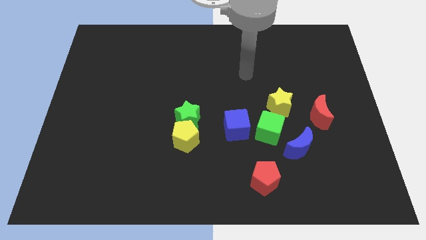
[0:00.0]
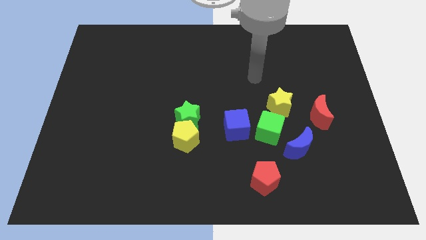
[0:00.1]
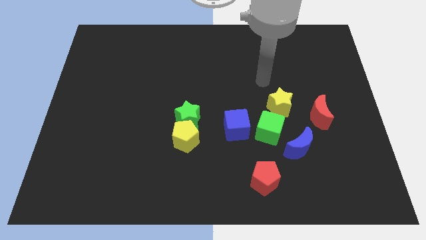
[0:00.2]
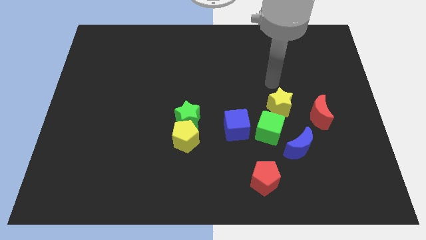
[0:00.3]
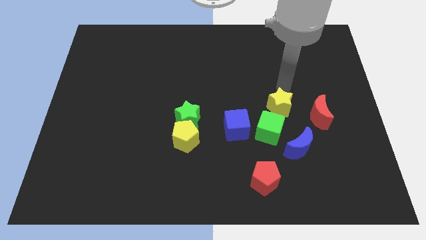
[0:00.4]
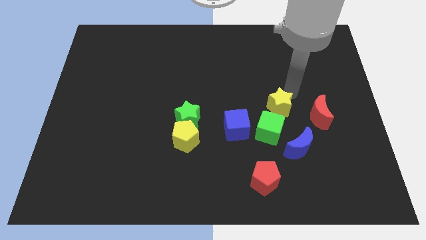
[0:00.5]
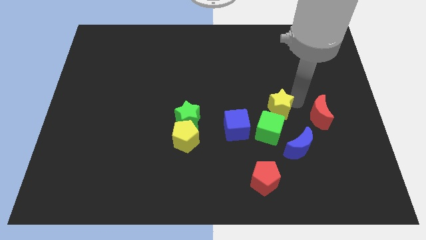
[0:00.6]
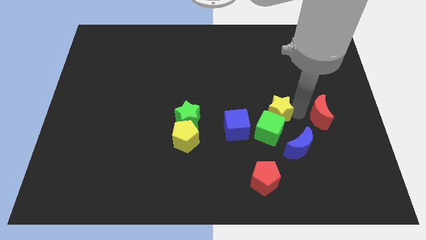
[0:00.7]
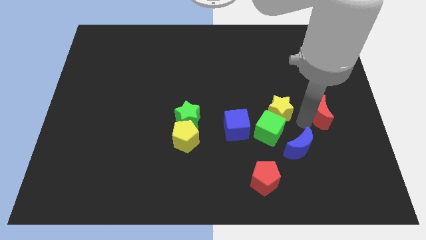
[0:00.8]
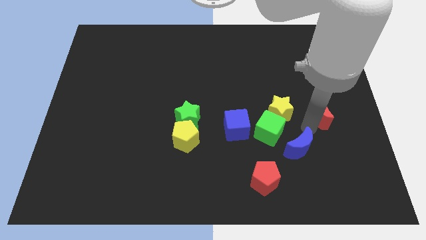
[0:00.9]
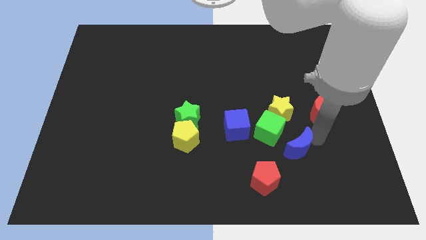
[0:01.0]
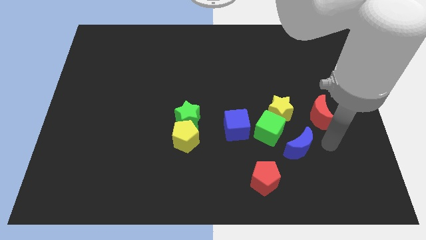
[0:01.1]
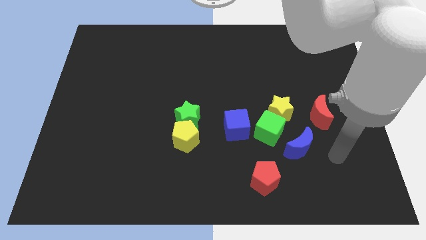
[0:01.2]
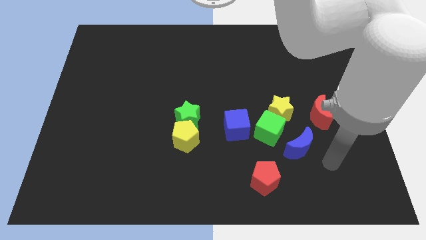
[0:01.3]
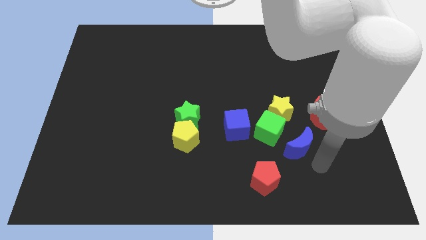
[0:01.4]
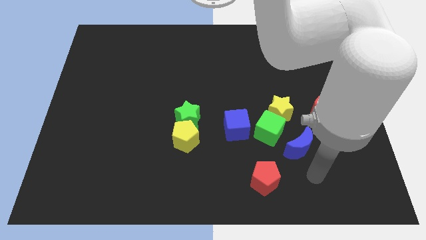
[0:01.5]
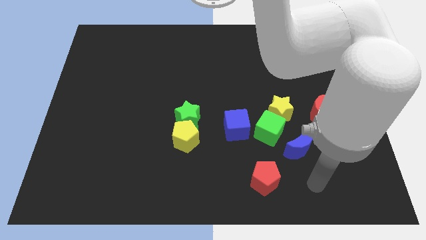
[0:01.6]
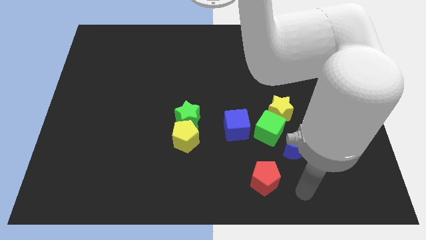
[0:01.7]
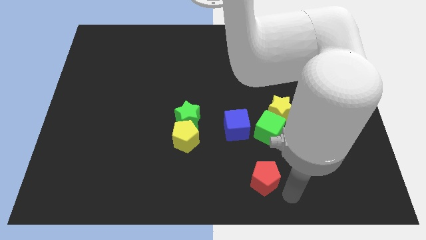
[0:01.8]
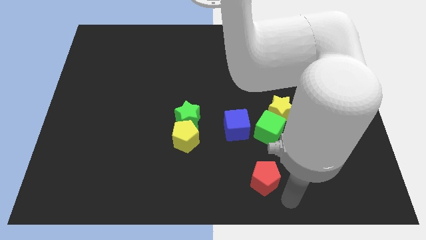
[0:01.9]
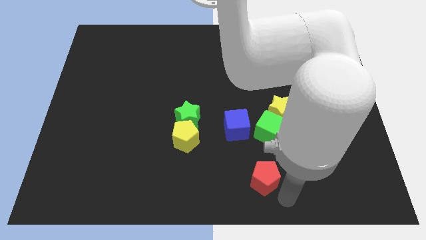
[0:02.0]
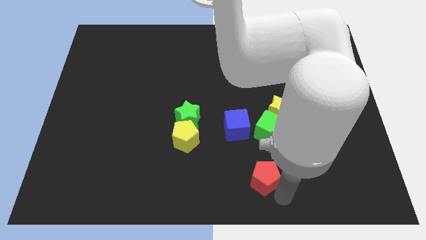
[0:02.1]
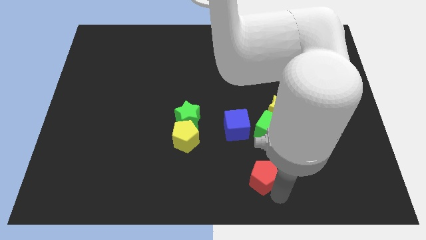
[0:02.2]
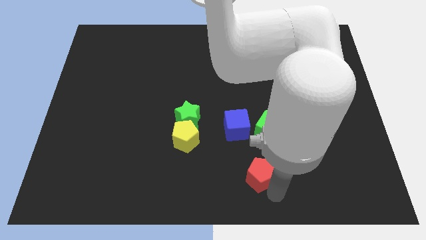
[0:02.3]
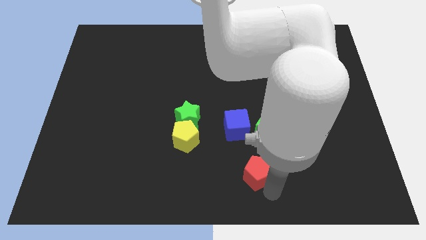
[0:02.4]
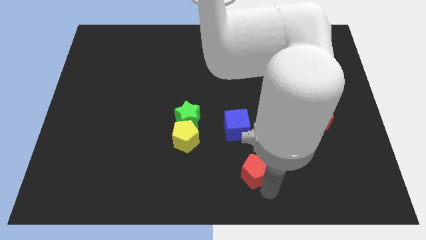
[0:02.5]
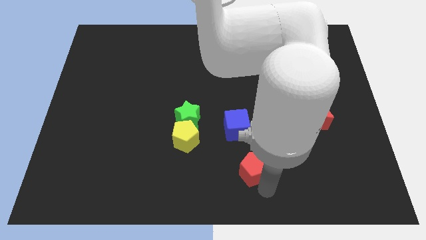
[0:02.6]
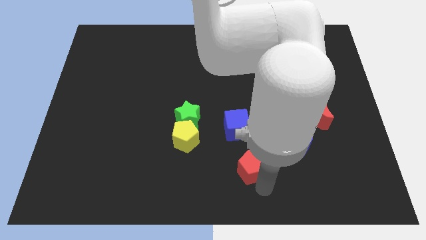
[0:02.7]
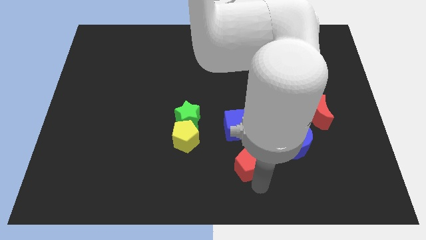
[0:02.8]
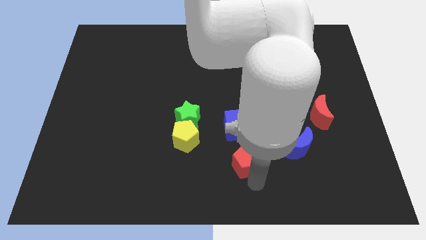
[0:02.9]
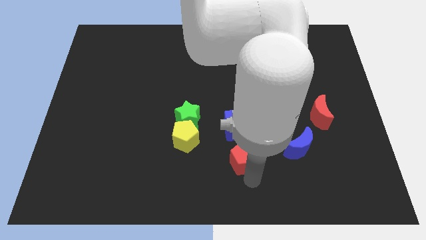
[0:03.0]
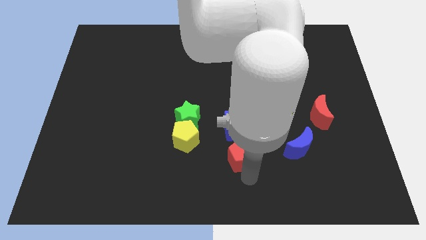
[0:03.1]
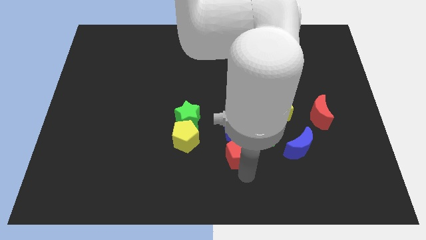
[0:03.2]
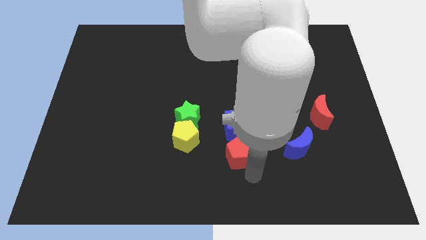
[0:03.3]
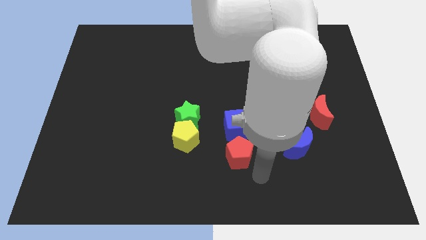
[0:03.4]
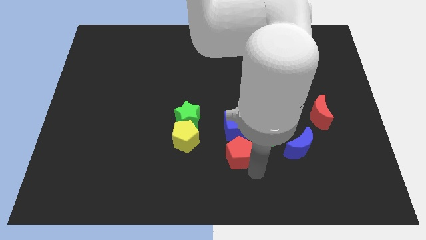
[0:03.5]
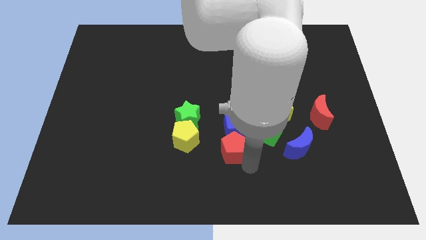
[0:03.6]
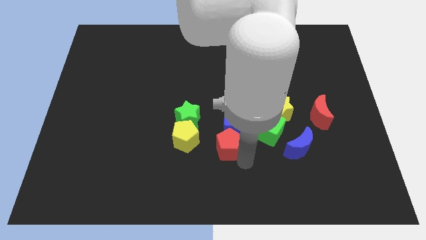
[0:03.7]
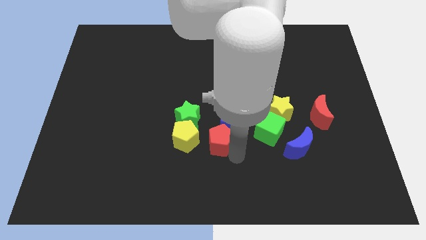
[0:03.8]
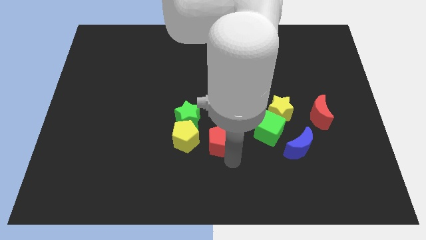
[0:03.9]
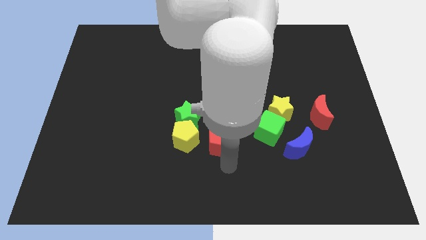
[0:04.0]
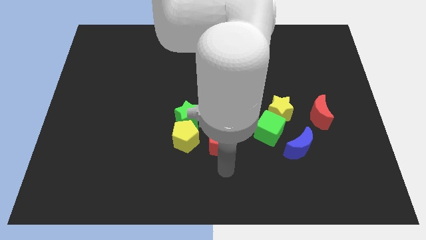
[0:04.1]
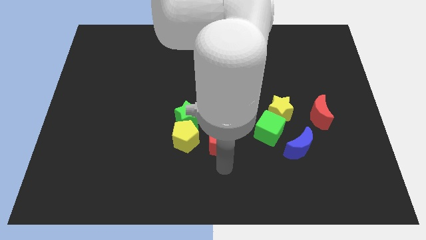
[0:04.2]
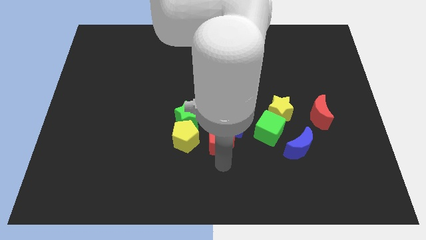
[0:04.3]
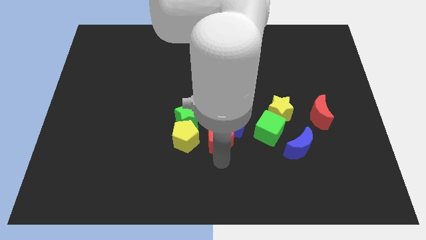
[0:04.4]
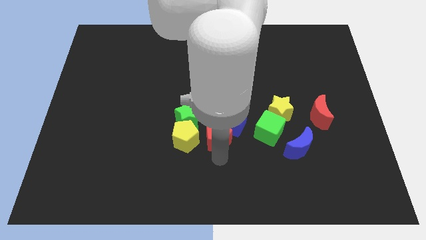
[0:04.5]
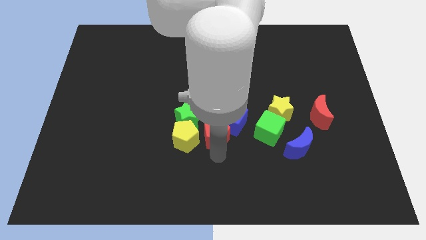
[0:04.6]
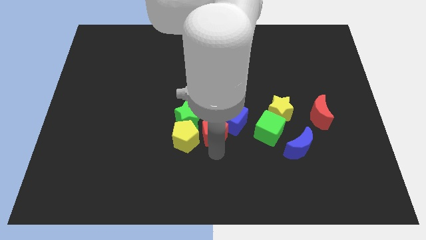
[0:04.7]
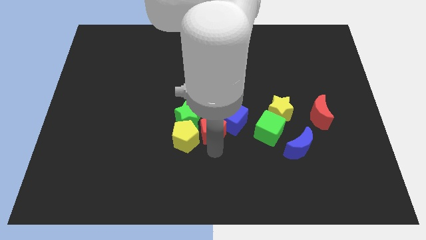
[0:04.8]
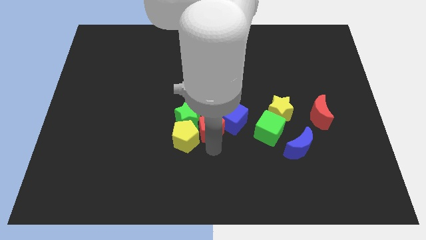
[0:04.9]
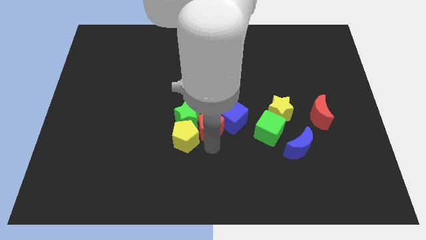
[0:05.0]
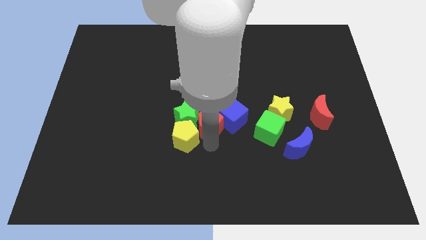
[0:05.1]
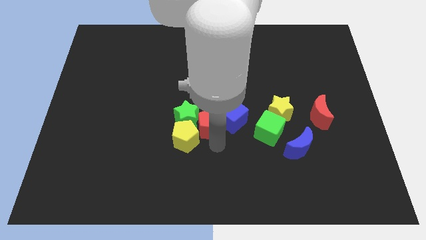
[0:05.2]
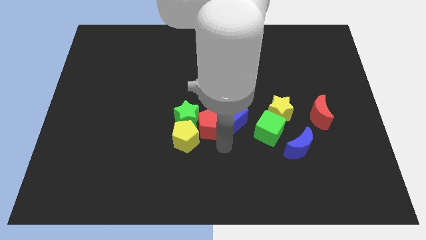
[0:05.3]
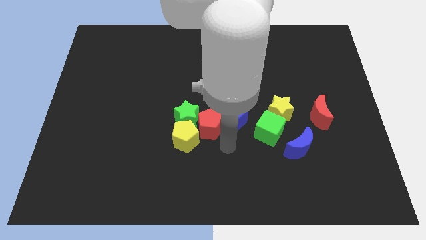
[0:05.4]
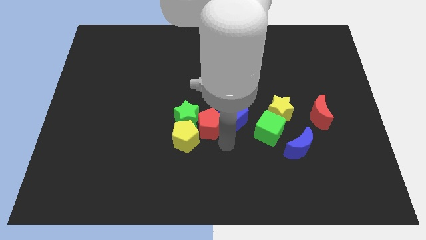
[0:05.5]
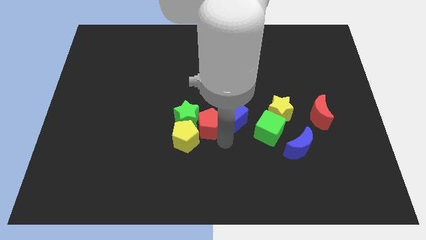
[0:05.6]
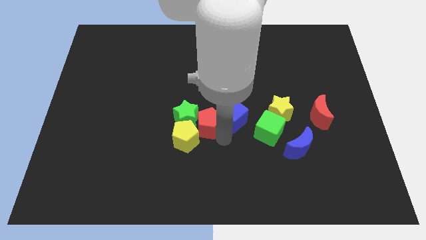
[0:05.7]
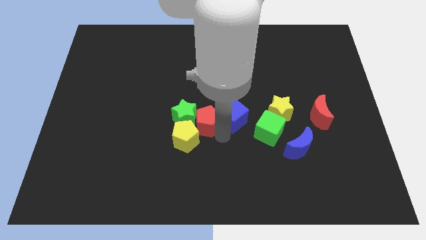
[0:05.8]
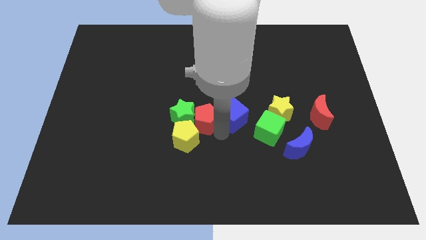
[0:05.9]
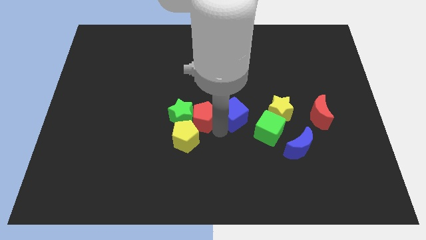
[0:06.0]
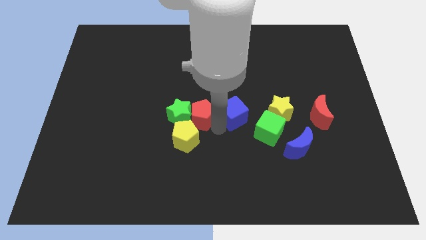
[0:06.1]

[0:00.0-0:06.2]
move the red pentagon up and left diagonally

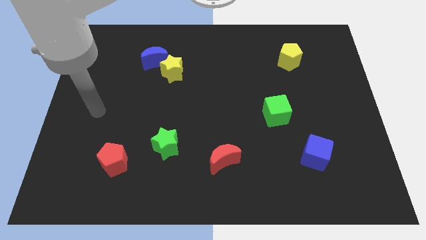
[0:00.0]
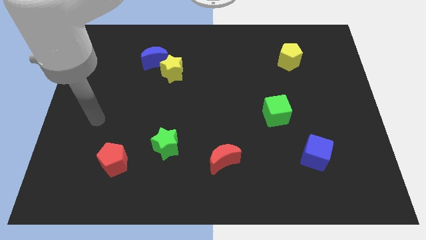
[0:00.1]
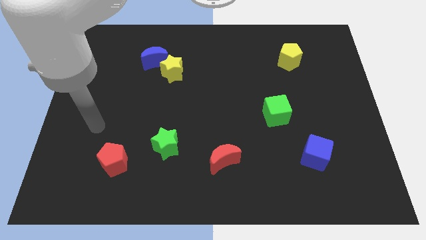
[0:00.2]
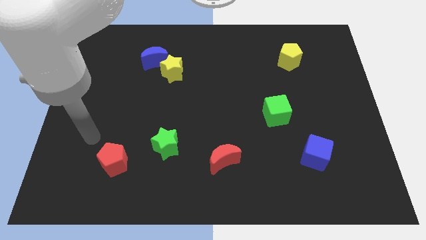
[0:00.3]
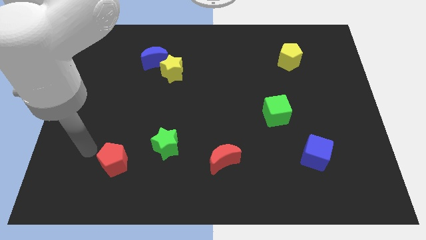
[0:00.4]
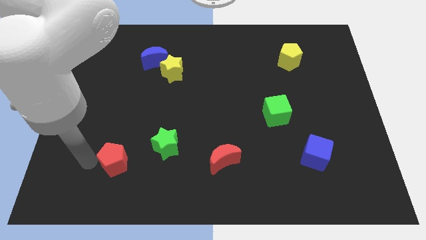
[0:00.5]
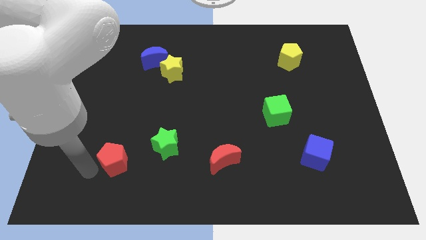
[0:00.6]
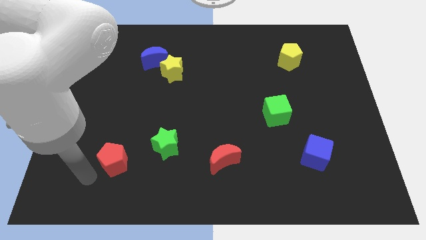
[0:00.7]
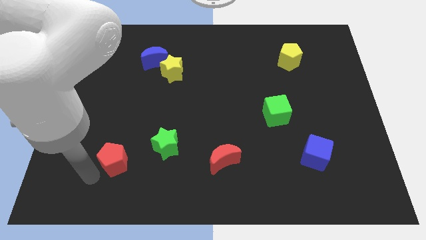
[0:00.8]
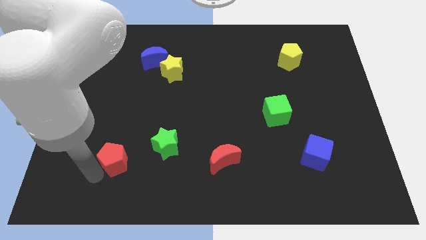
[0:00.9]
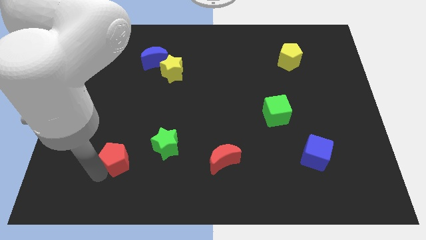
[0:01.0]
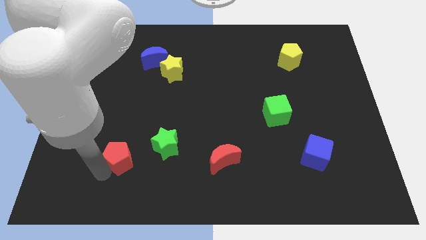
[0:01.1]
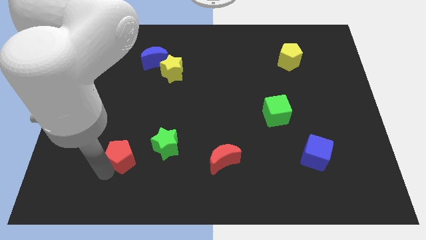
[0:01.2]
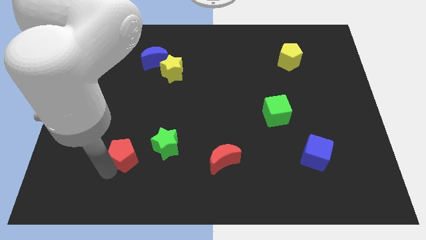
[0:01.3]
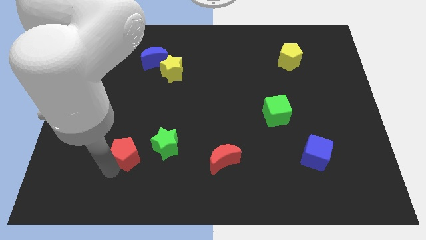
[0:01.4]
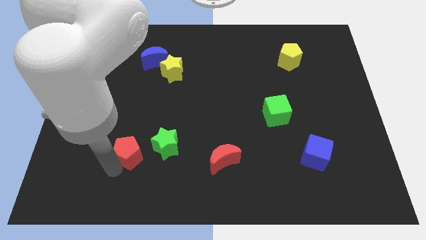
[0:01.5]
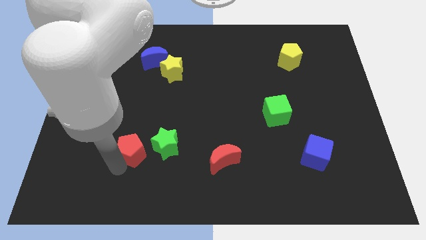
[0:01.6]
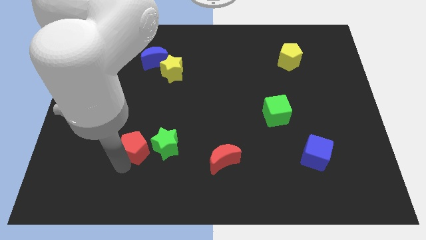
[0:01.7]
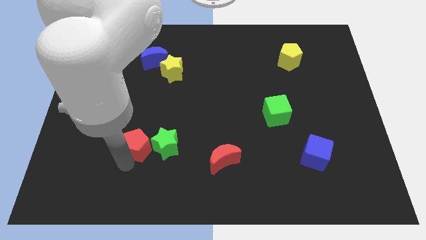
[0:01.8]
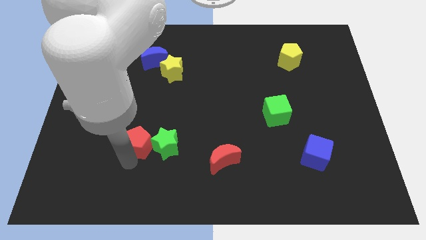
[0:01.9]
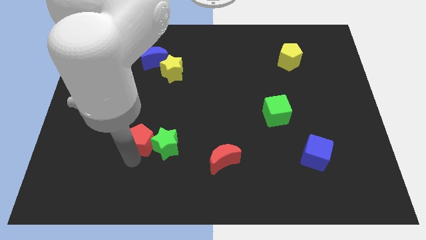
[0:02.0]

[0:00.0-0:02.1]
slightly push the red pentagon diagonally up and to the right

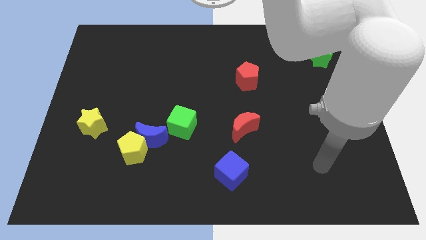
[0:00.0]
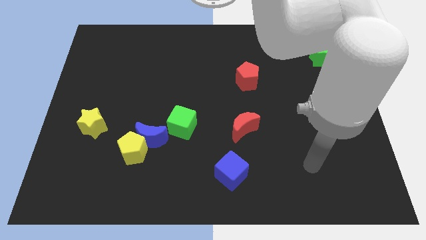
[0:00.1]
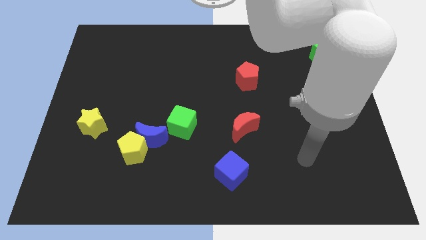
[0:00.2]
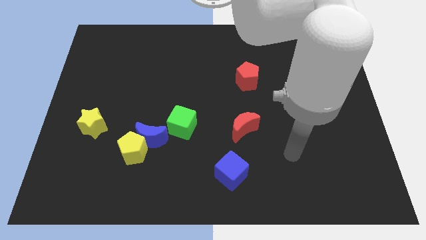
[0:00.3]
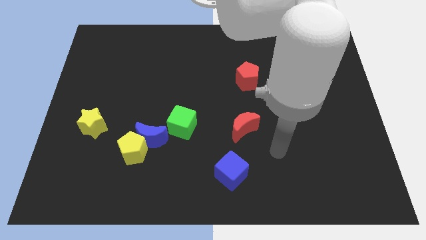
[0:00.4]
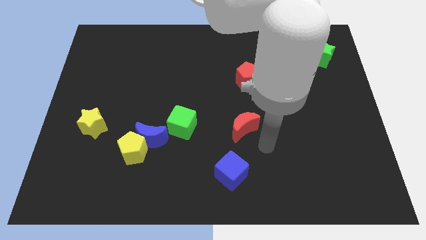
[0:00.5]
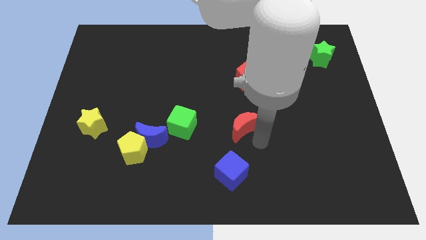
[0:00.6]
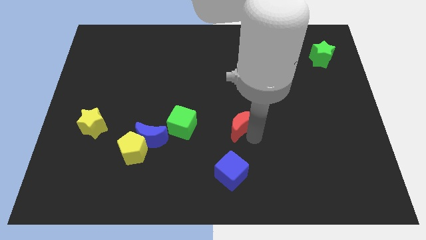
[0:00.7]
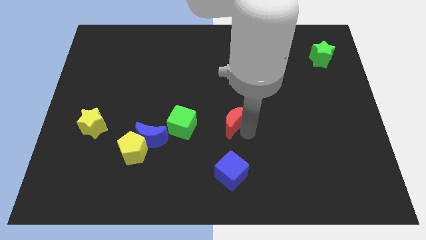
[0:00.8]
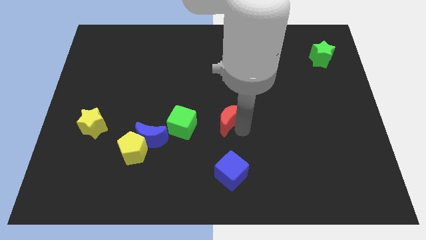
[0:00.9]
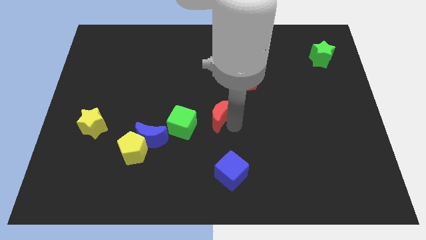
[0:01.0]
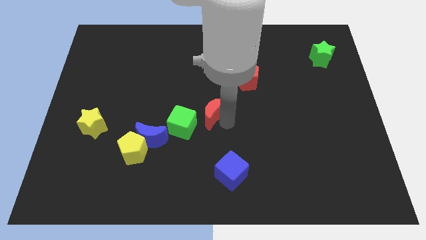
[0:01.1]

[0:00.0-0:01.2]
slide the red moon upwards and then left a bit
